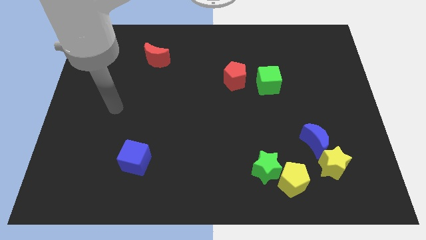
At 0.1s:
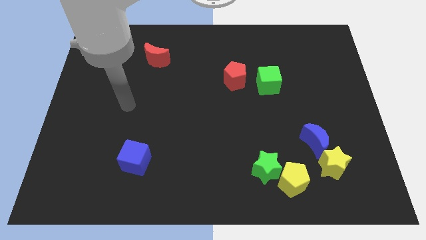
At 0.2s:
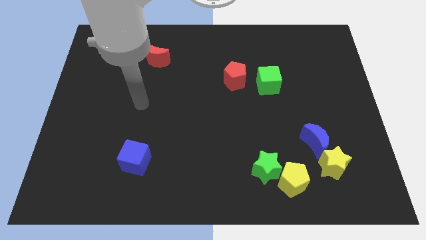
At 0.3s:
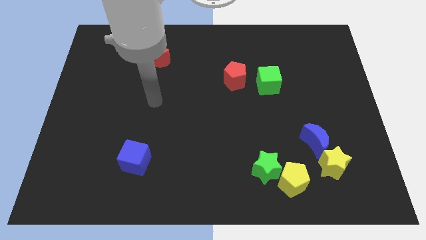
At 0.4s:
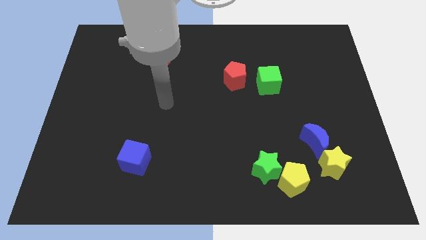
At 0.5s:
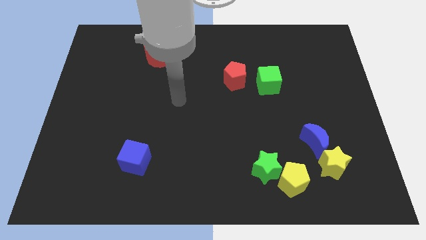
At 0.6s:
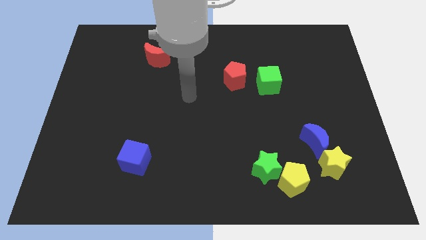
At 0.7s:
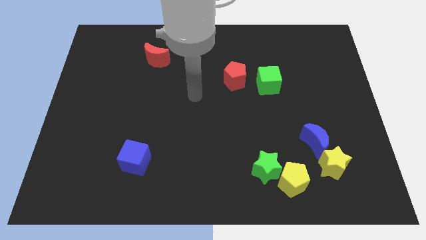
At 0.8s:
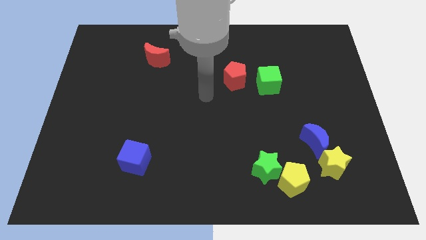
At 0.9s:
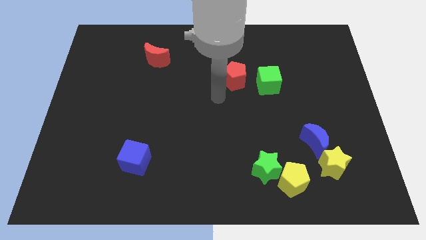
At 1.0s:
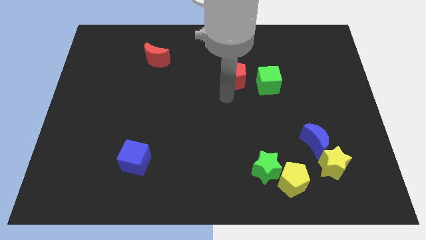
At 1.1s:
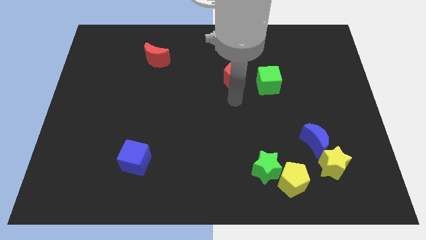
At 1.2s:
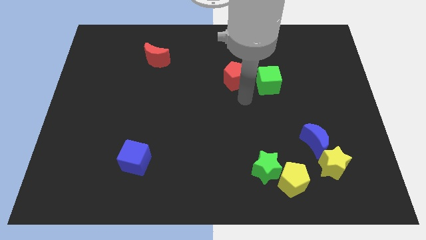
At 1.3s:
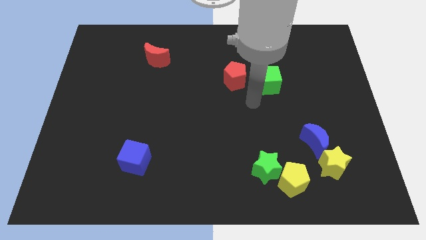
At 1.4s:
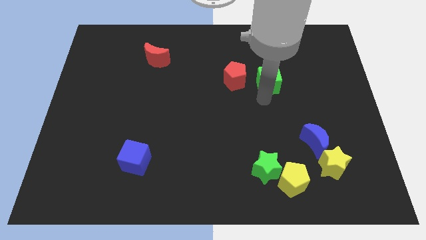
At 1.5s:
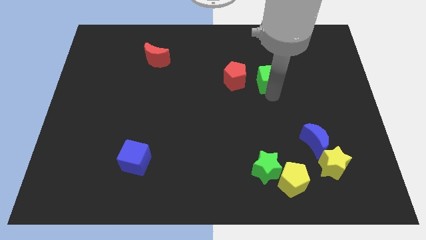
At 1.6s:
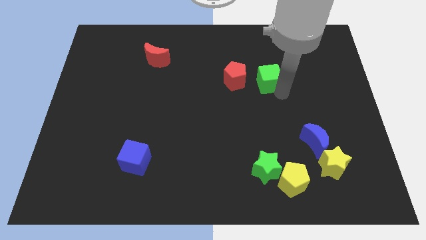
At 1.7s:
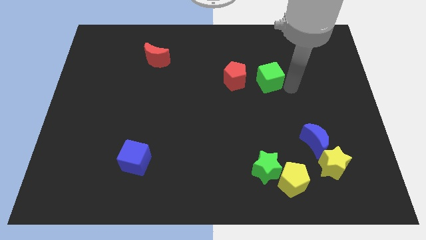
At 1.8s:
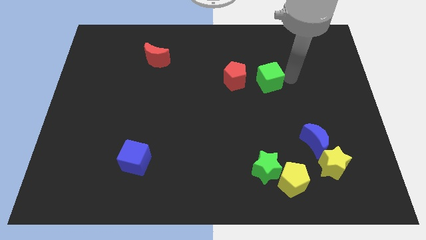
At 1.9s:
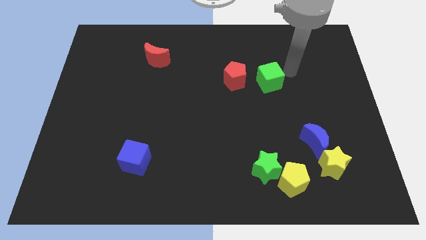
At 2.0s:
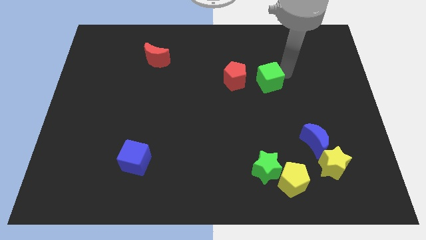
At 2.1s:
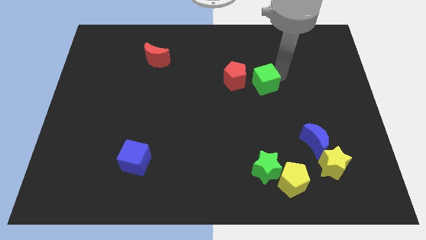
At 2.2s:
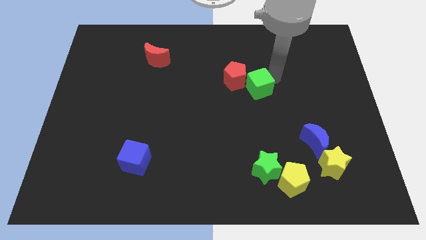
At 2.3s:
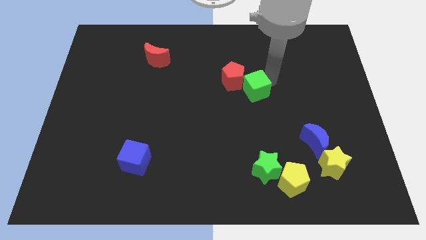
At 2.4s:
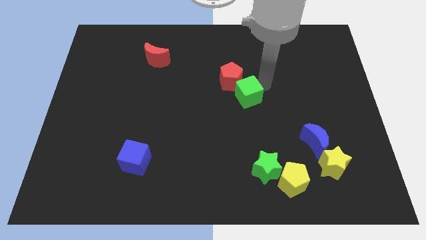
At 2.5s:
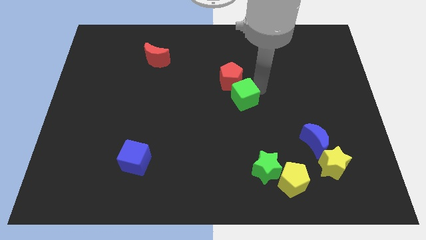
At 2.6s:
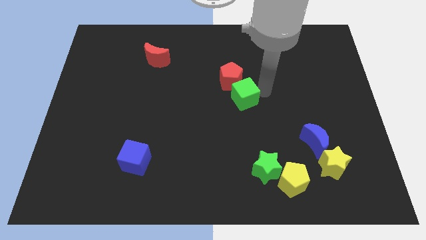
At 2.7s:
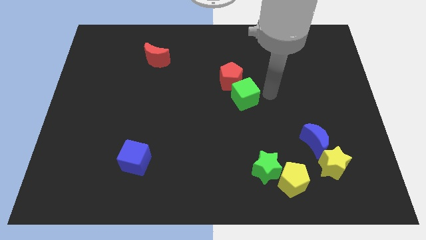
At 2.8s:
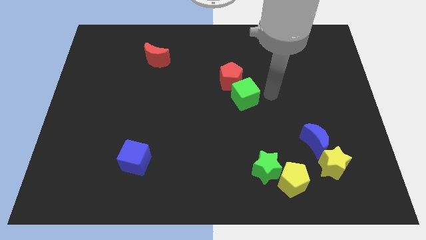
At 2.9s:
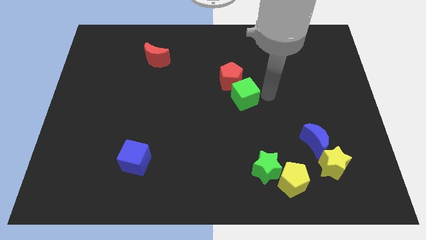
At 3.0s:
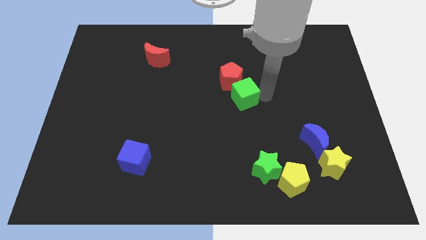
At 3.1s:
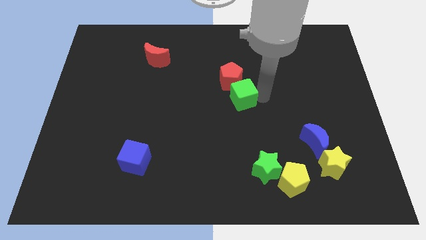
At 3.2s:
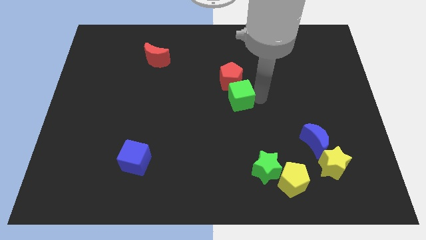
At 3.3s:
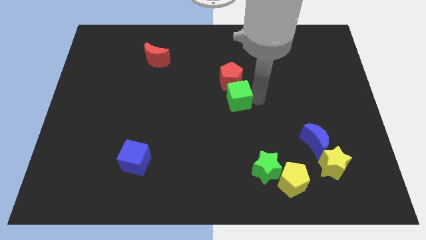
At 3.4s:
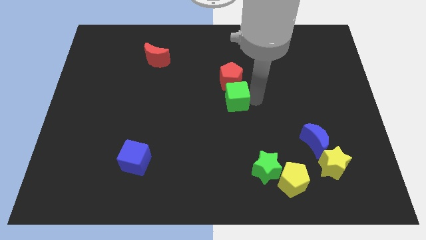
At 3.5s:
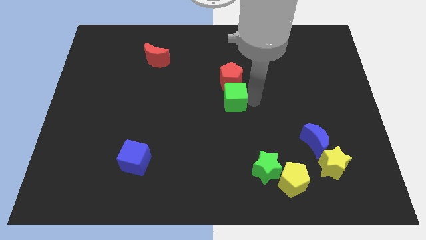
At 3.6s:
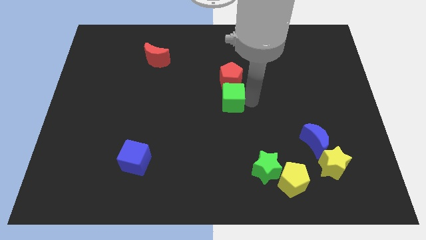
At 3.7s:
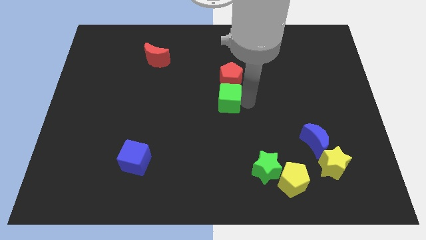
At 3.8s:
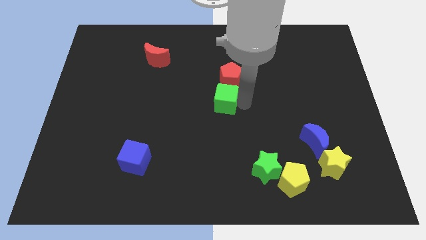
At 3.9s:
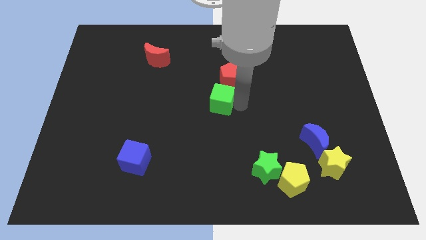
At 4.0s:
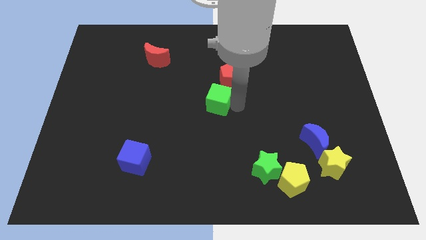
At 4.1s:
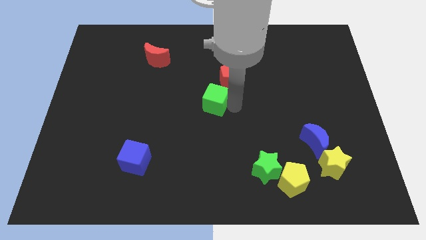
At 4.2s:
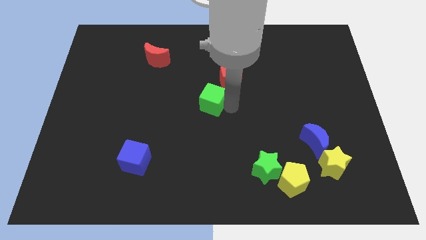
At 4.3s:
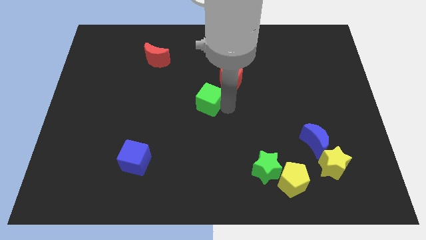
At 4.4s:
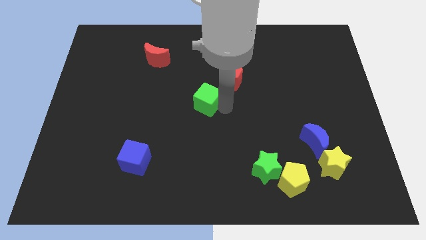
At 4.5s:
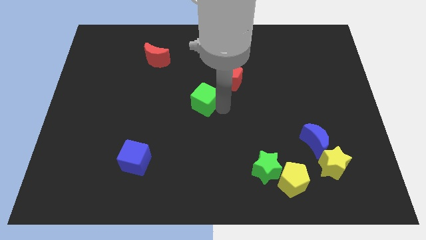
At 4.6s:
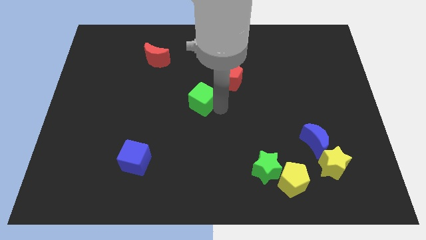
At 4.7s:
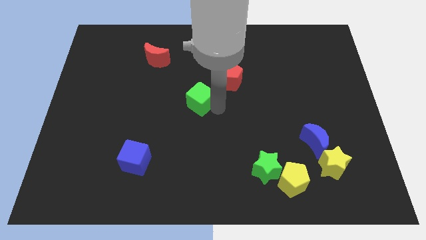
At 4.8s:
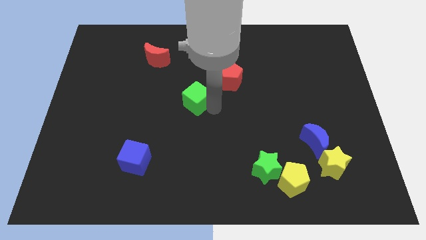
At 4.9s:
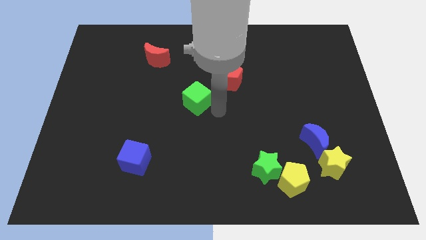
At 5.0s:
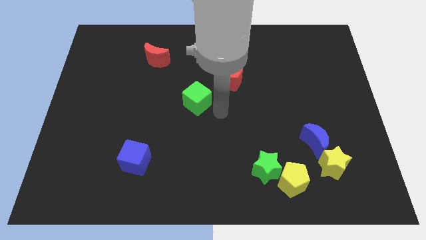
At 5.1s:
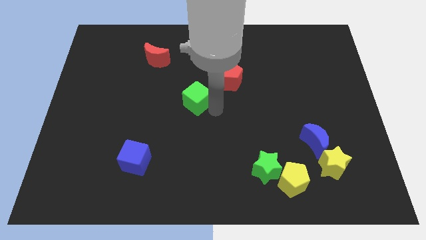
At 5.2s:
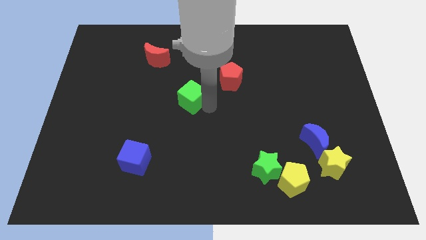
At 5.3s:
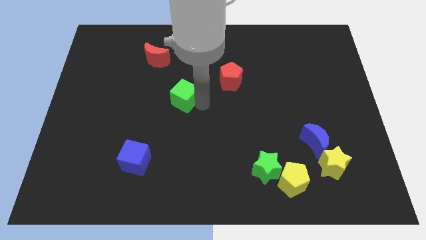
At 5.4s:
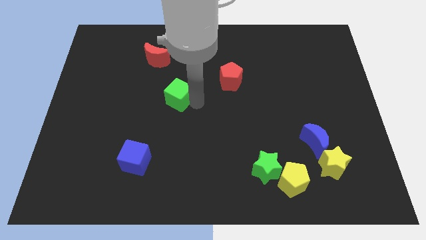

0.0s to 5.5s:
push the green cube left

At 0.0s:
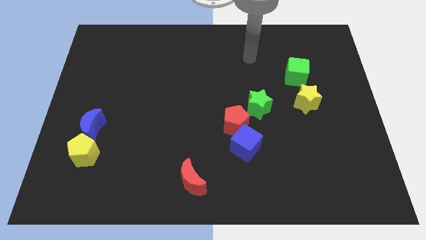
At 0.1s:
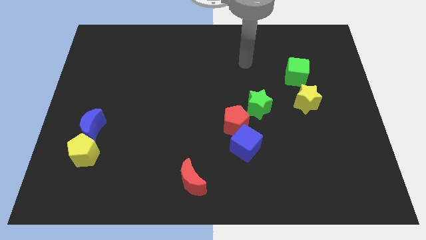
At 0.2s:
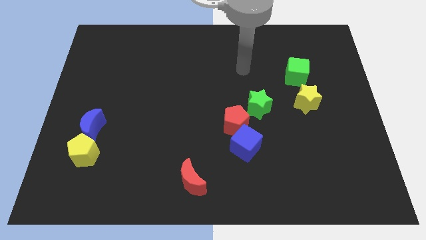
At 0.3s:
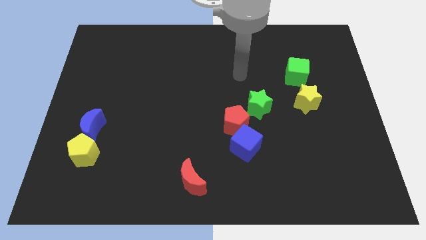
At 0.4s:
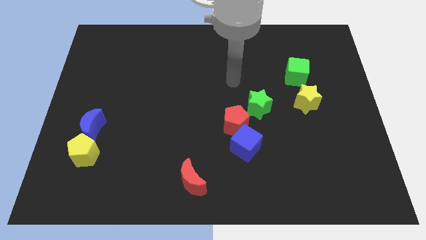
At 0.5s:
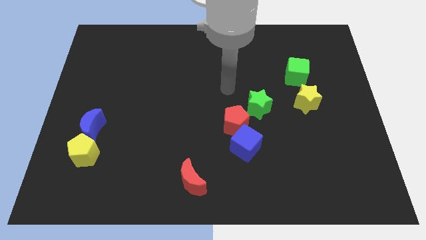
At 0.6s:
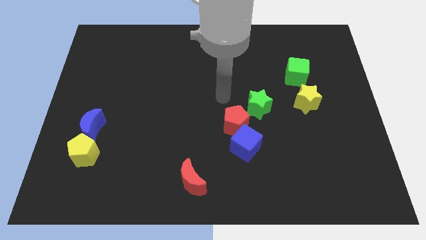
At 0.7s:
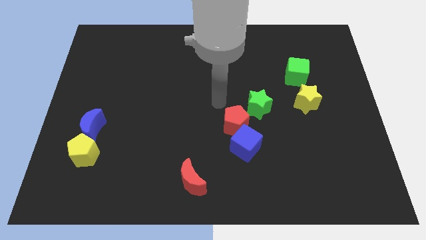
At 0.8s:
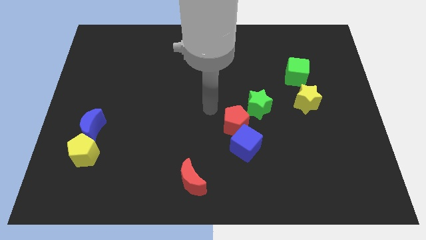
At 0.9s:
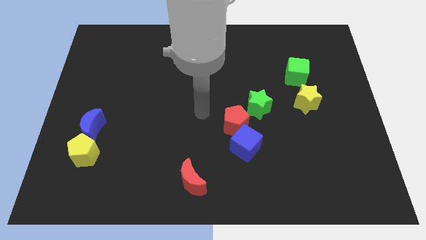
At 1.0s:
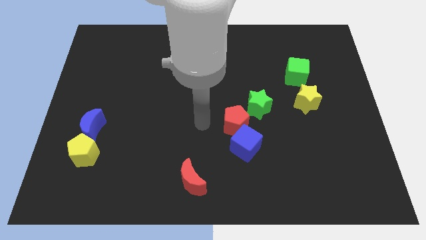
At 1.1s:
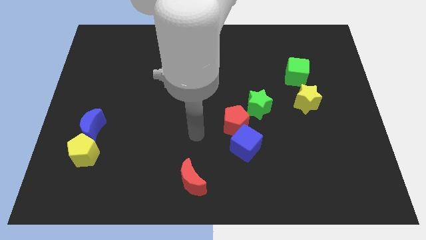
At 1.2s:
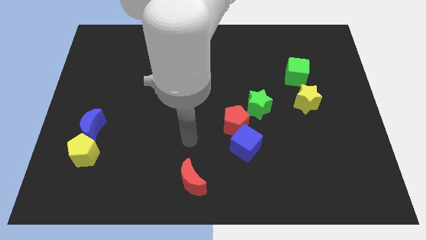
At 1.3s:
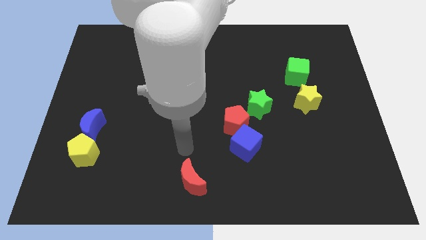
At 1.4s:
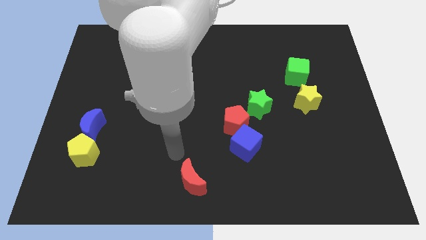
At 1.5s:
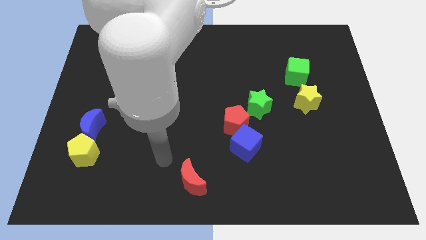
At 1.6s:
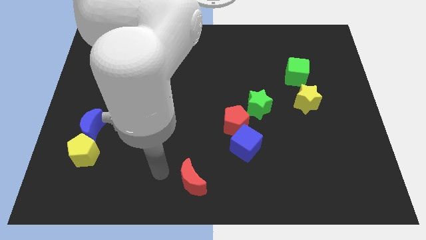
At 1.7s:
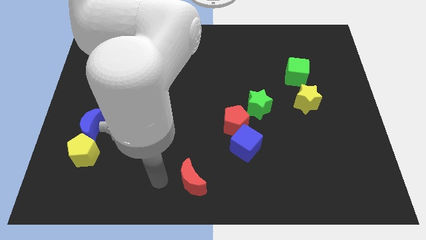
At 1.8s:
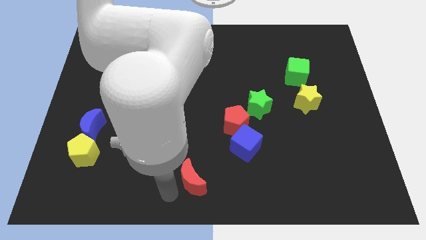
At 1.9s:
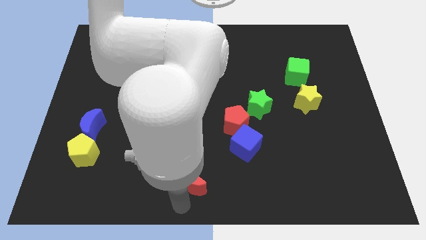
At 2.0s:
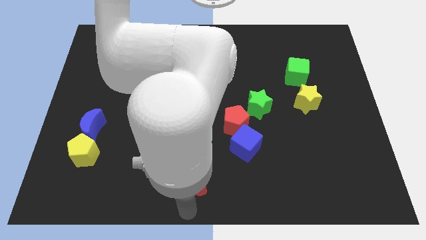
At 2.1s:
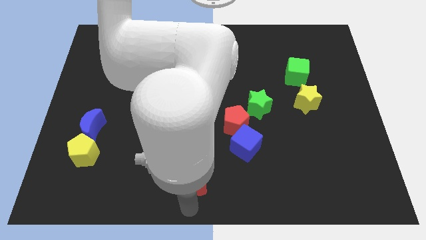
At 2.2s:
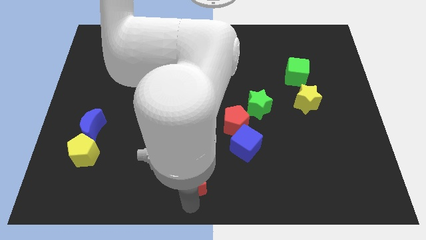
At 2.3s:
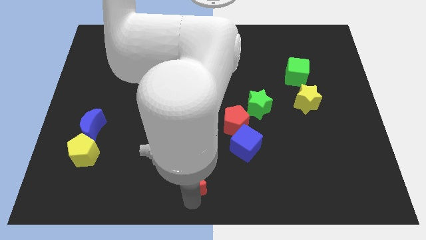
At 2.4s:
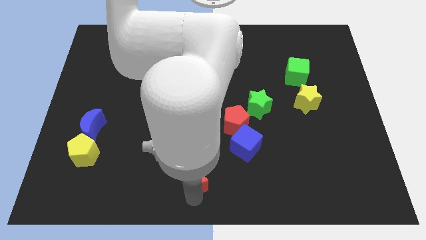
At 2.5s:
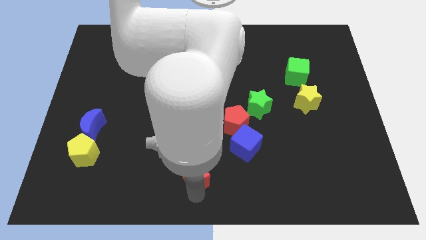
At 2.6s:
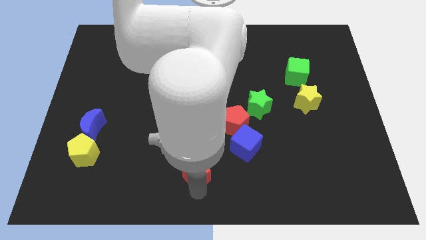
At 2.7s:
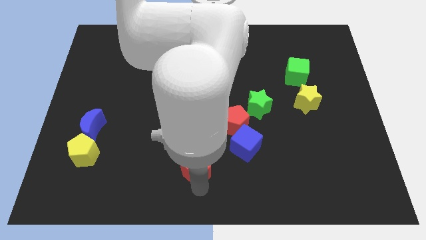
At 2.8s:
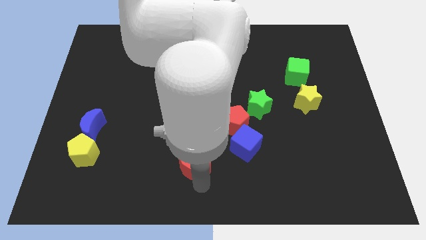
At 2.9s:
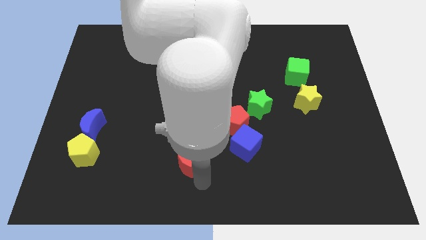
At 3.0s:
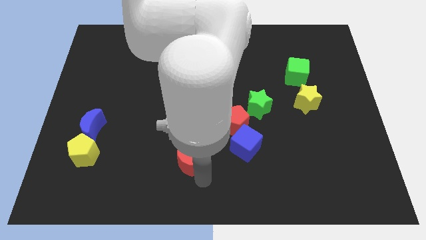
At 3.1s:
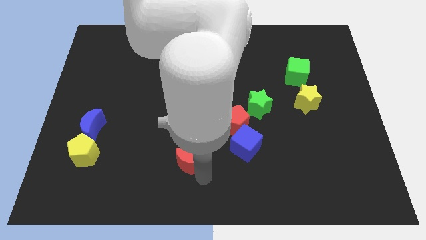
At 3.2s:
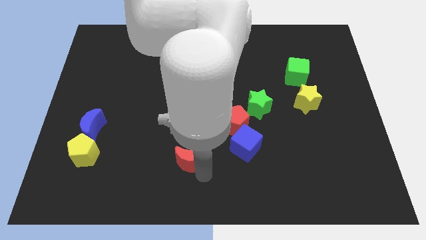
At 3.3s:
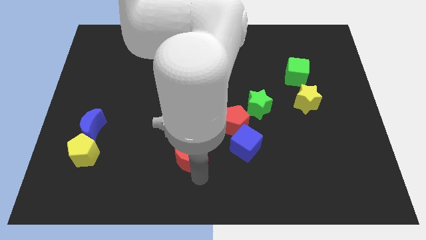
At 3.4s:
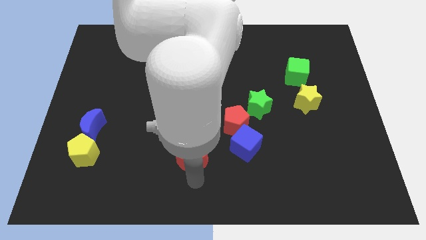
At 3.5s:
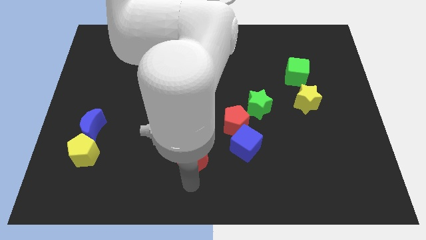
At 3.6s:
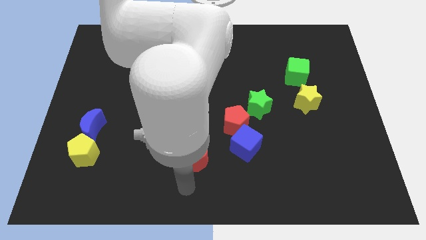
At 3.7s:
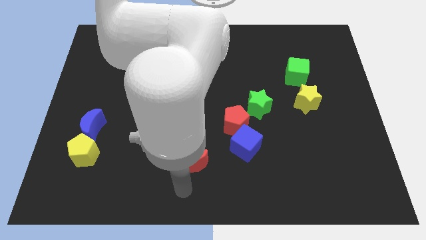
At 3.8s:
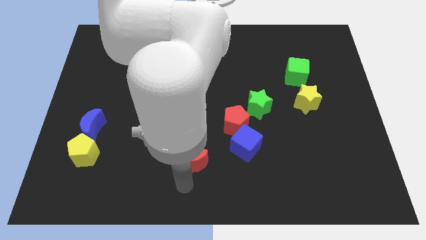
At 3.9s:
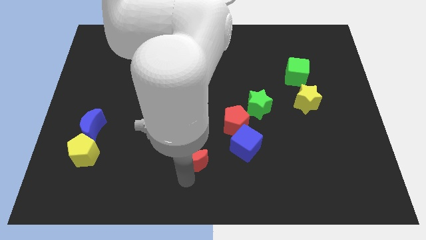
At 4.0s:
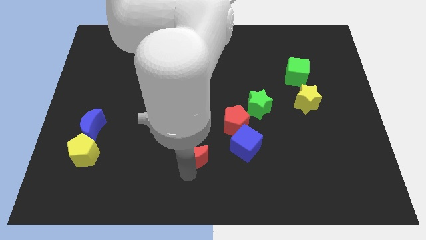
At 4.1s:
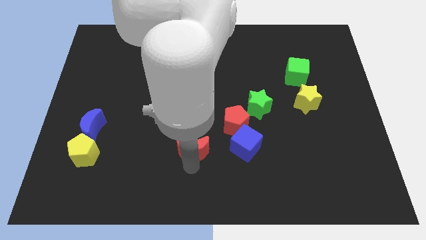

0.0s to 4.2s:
push the red moon a bit up
